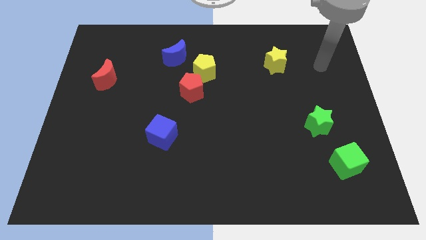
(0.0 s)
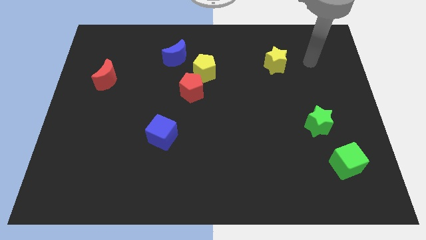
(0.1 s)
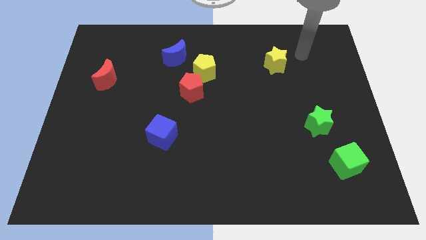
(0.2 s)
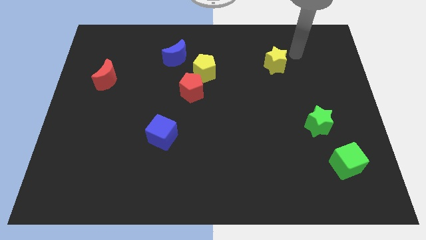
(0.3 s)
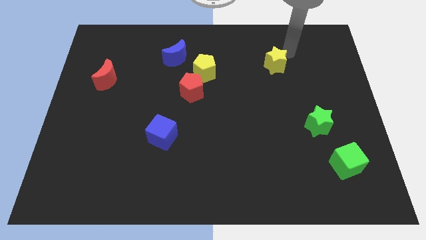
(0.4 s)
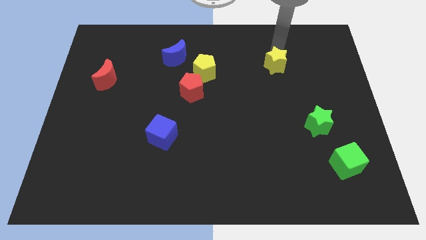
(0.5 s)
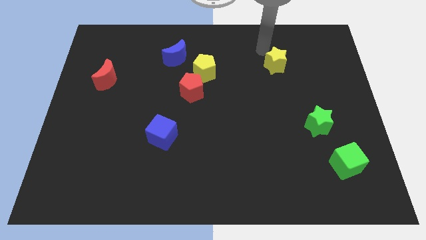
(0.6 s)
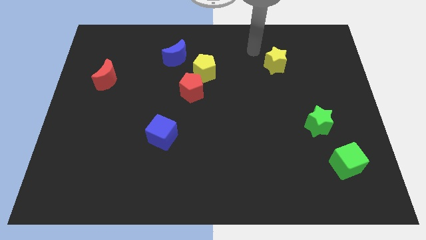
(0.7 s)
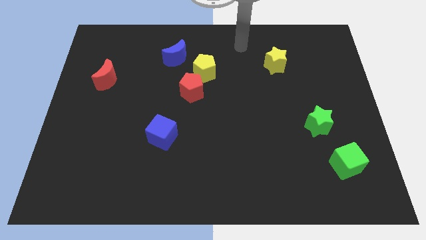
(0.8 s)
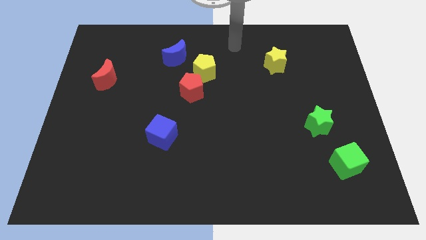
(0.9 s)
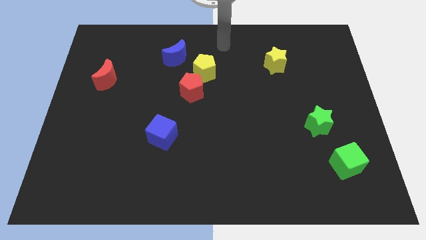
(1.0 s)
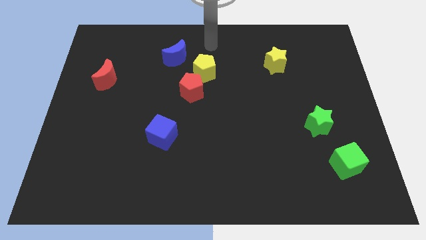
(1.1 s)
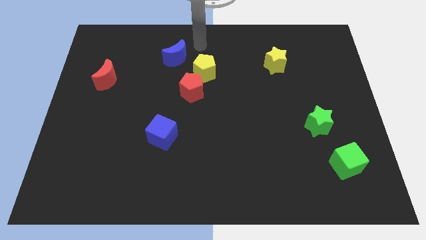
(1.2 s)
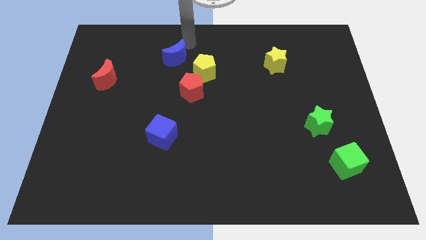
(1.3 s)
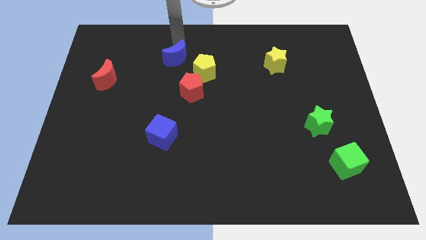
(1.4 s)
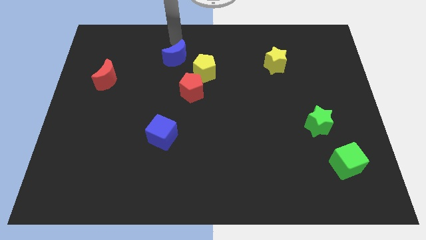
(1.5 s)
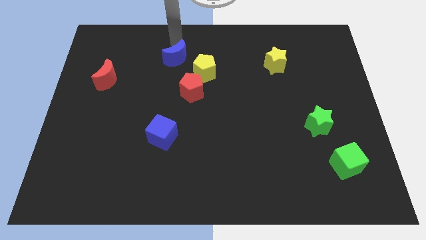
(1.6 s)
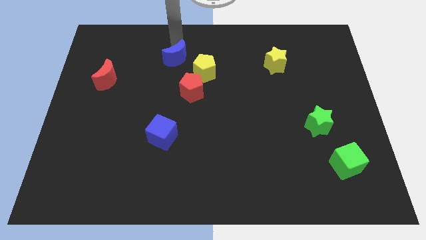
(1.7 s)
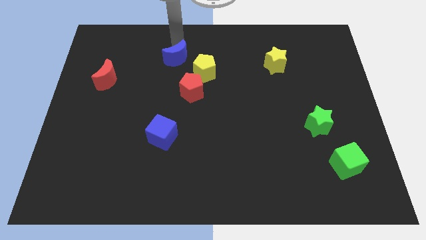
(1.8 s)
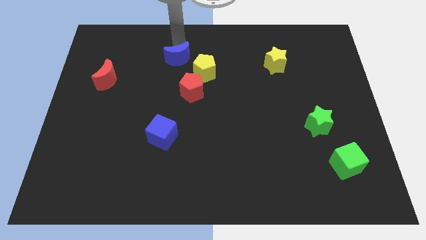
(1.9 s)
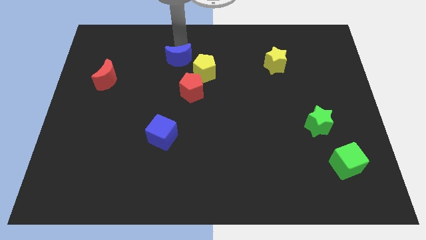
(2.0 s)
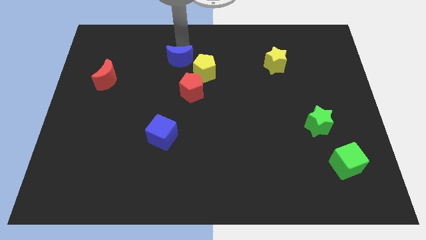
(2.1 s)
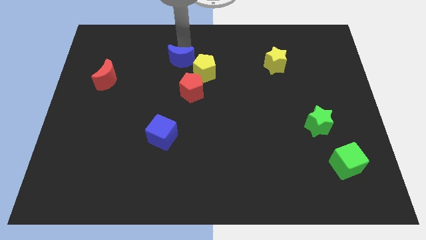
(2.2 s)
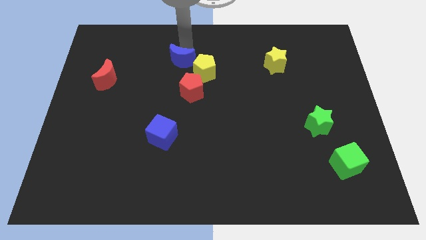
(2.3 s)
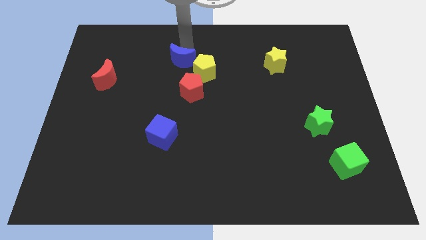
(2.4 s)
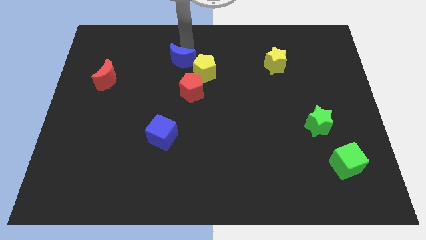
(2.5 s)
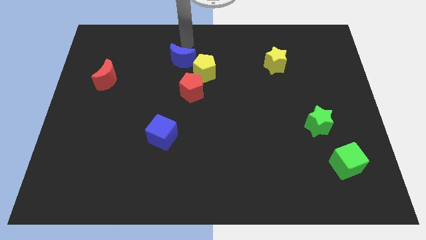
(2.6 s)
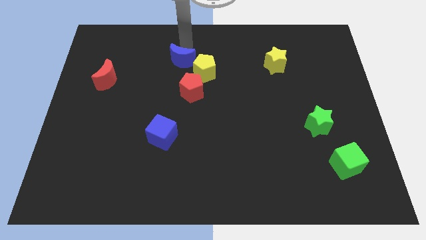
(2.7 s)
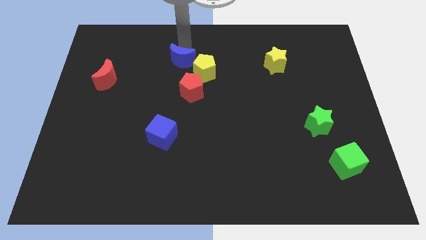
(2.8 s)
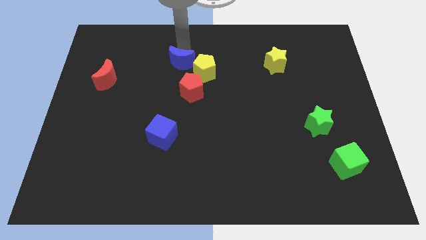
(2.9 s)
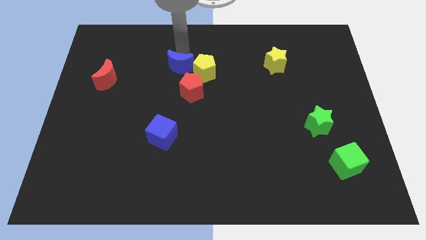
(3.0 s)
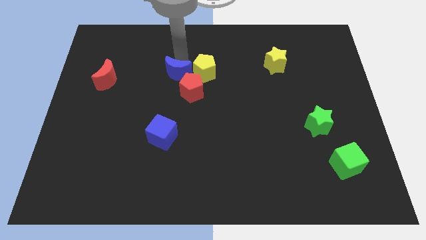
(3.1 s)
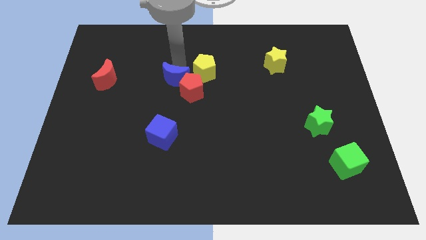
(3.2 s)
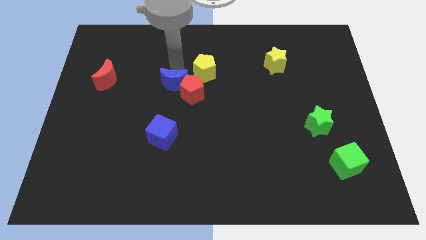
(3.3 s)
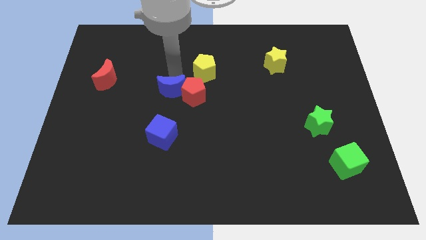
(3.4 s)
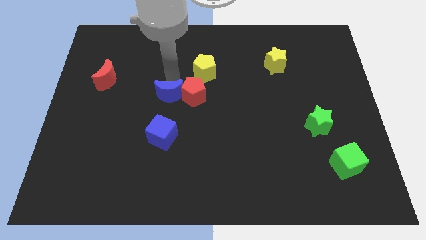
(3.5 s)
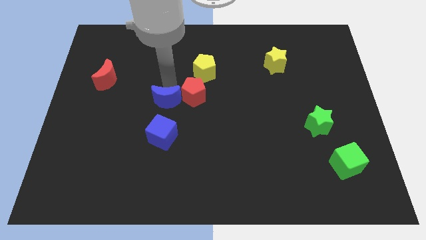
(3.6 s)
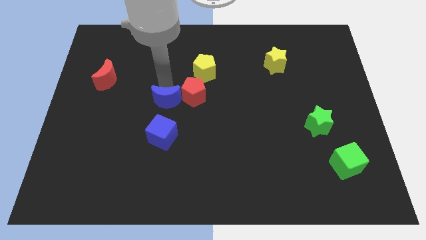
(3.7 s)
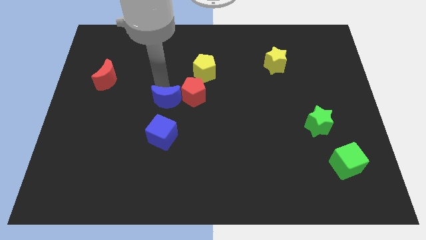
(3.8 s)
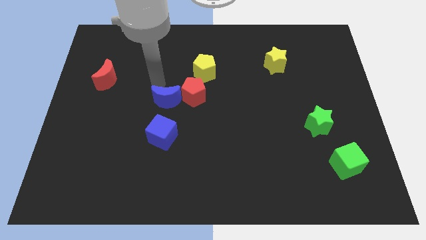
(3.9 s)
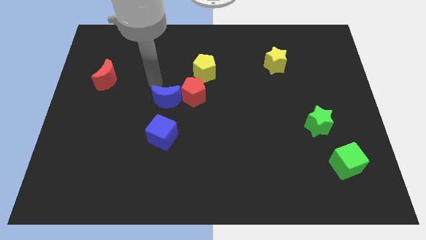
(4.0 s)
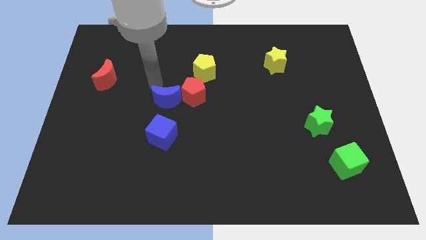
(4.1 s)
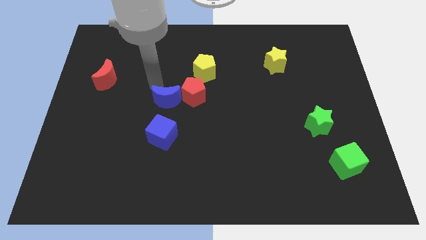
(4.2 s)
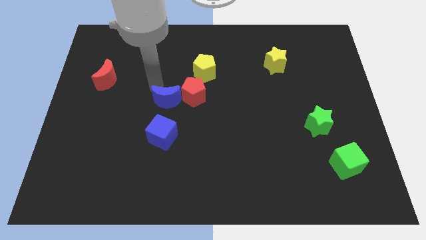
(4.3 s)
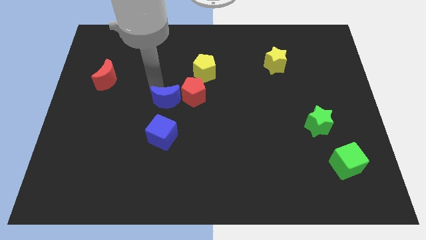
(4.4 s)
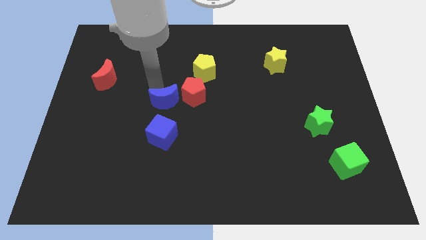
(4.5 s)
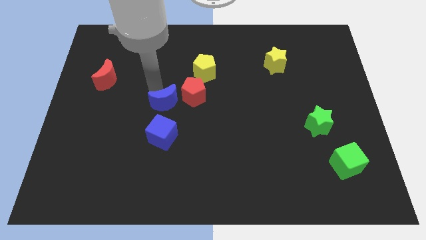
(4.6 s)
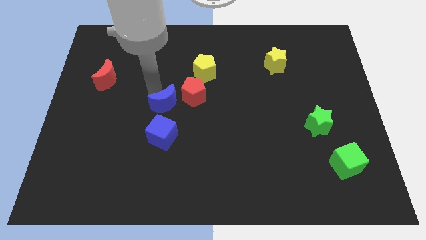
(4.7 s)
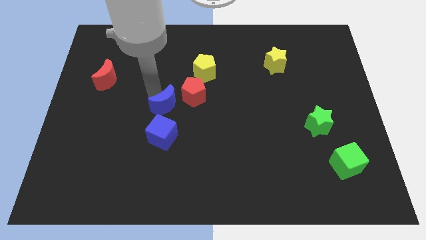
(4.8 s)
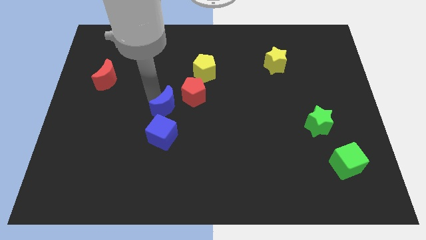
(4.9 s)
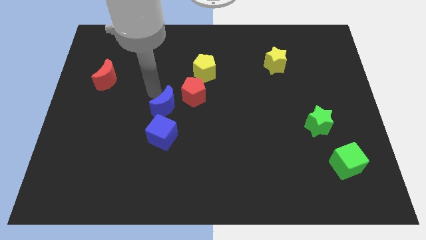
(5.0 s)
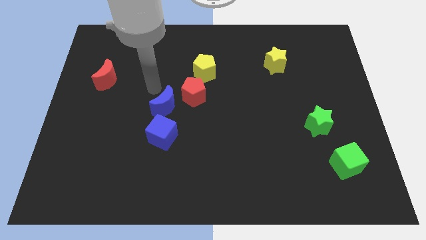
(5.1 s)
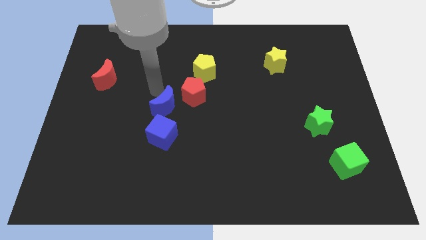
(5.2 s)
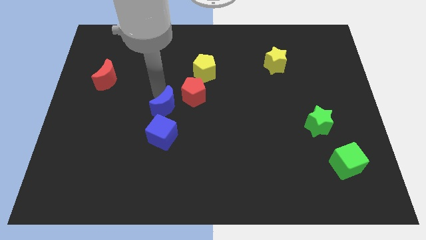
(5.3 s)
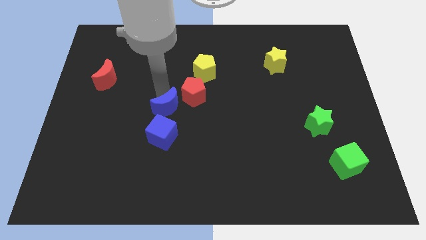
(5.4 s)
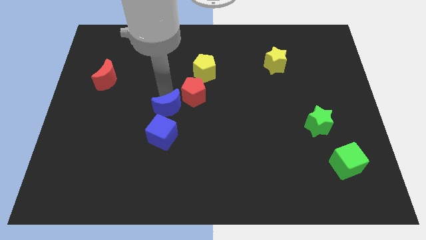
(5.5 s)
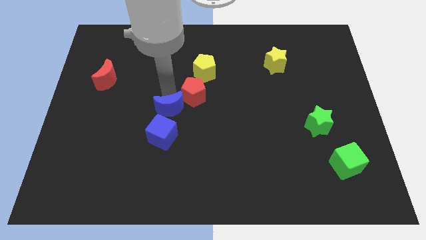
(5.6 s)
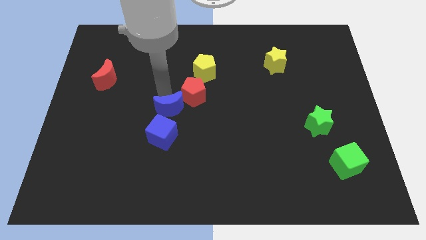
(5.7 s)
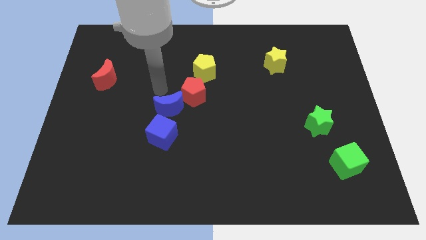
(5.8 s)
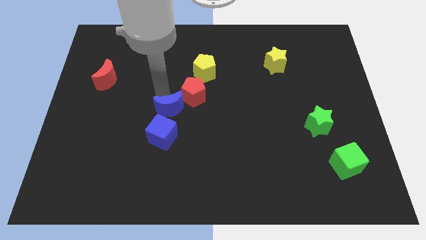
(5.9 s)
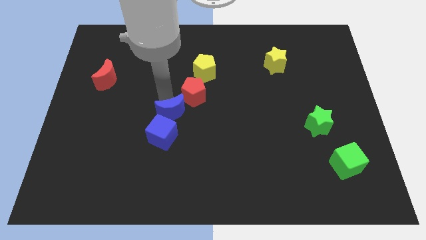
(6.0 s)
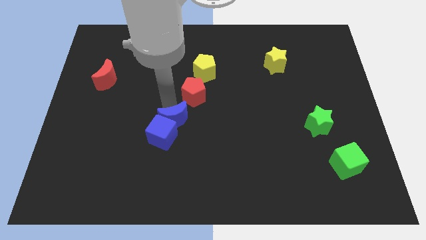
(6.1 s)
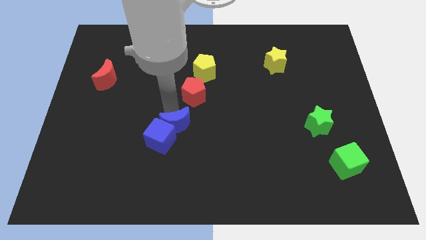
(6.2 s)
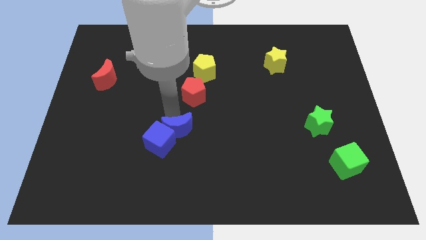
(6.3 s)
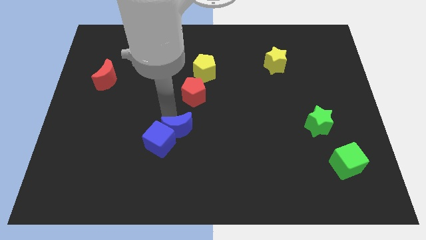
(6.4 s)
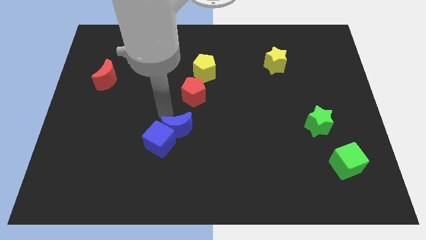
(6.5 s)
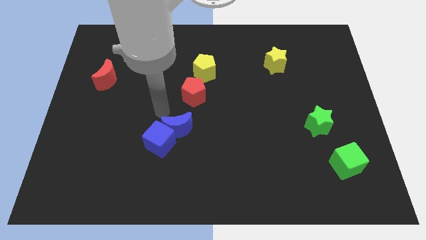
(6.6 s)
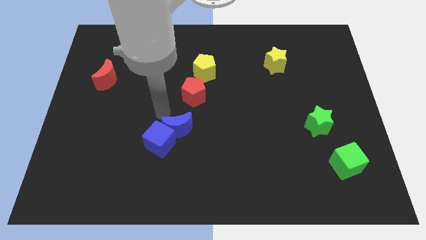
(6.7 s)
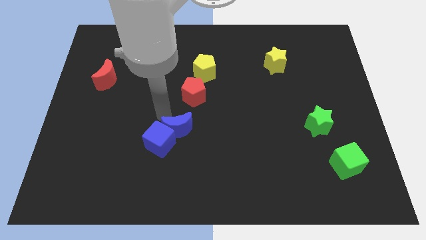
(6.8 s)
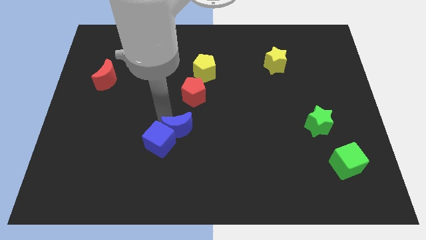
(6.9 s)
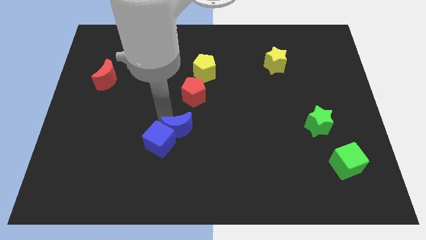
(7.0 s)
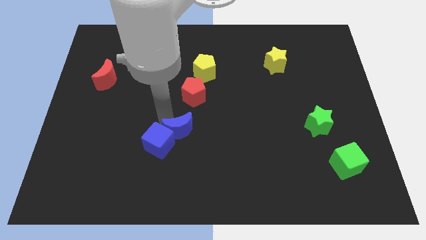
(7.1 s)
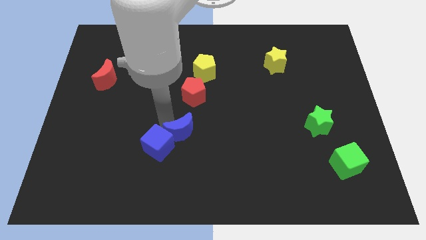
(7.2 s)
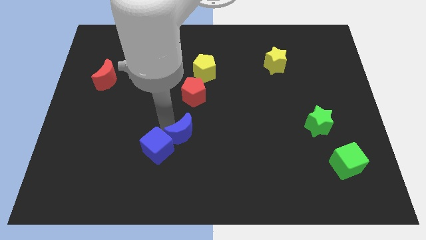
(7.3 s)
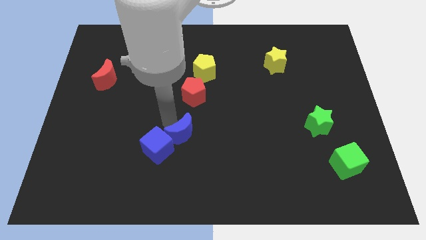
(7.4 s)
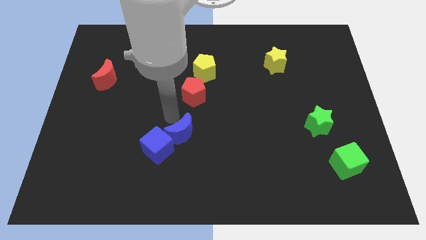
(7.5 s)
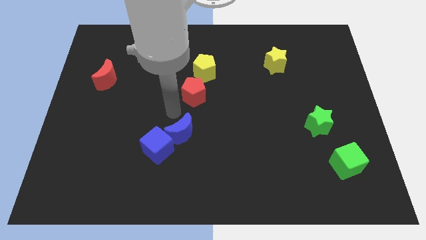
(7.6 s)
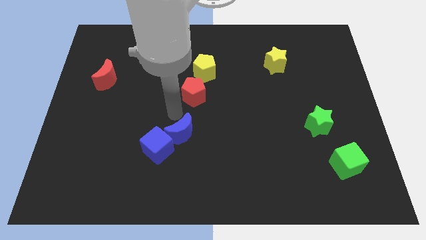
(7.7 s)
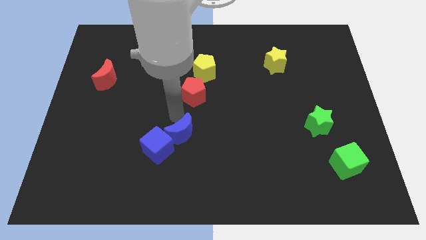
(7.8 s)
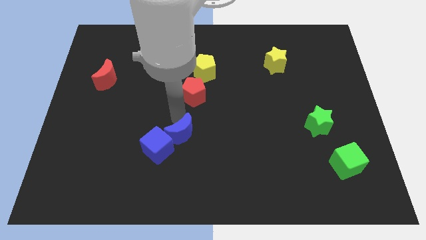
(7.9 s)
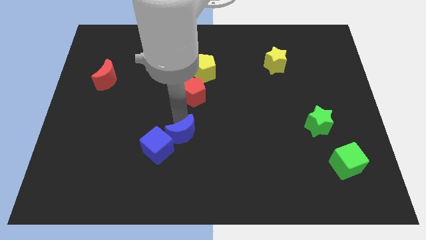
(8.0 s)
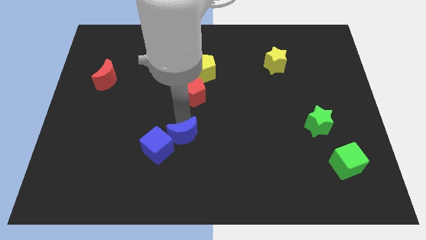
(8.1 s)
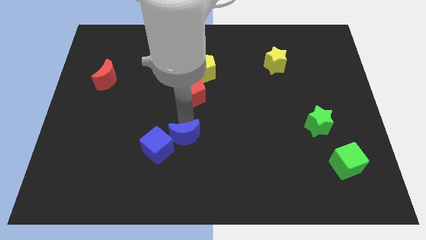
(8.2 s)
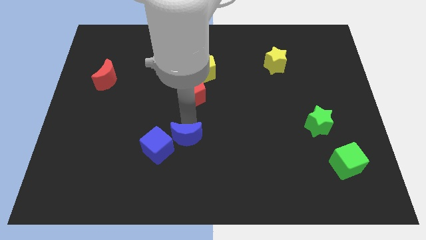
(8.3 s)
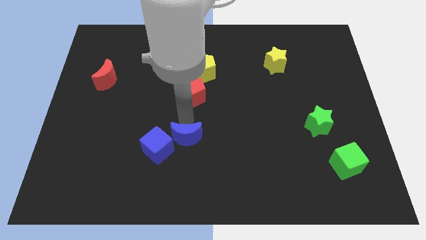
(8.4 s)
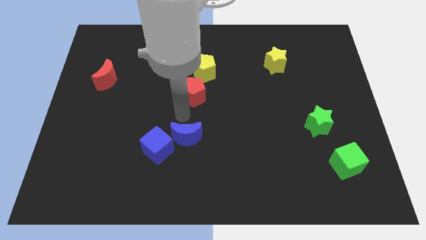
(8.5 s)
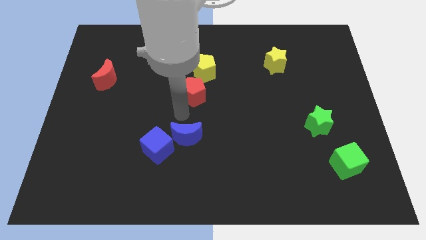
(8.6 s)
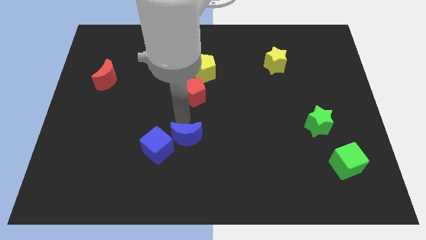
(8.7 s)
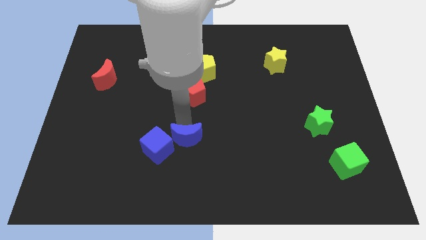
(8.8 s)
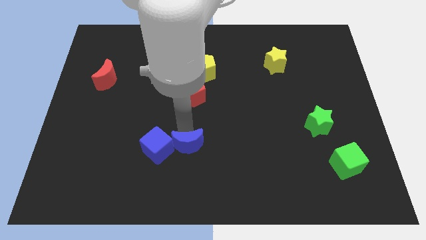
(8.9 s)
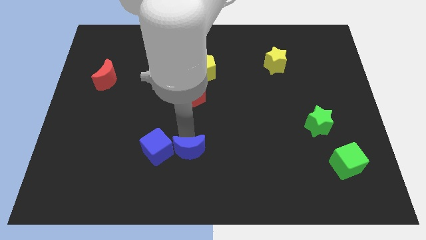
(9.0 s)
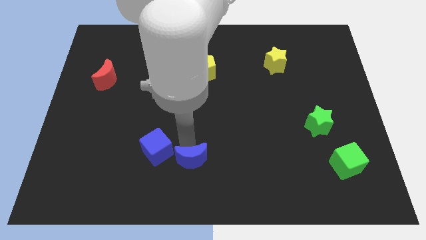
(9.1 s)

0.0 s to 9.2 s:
put the blue moon to the bottom side
